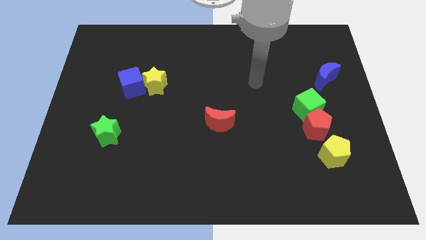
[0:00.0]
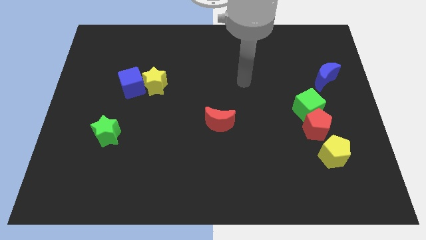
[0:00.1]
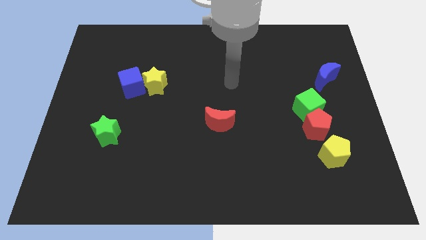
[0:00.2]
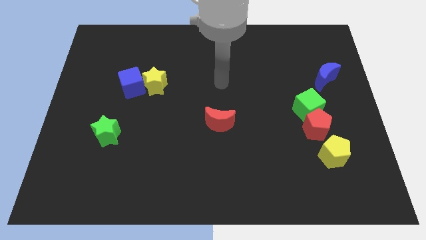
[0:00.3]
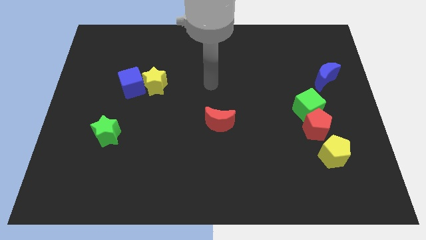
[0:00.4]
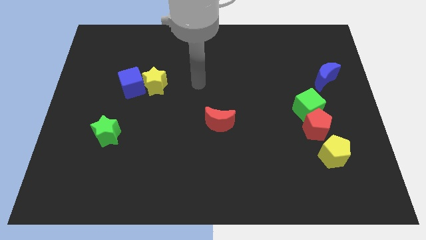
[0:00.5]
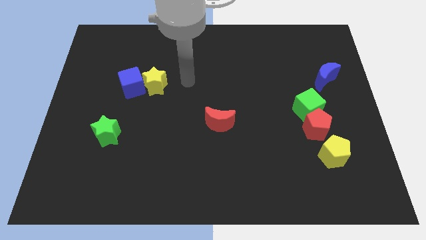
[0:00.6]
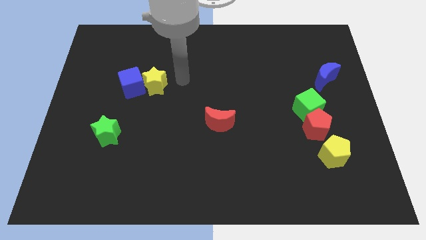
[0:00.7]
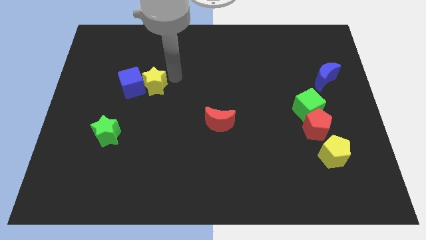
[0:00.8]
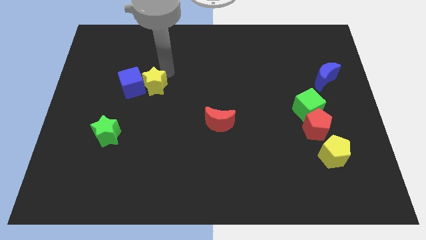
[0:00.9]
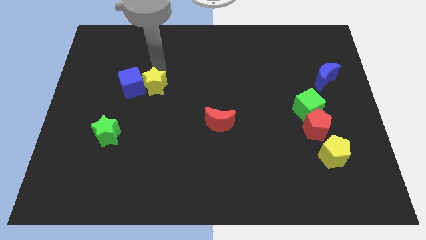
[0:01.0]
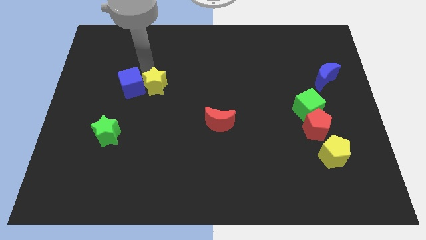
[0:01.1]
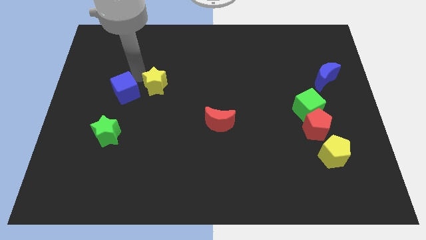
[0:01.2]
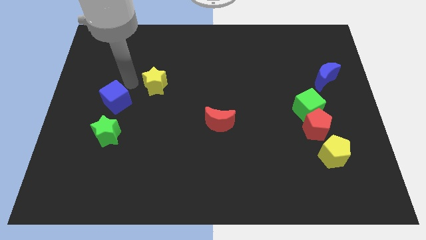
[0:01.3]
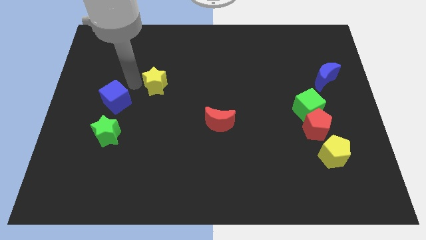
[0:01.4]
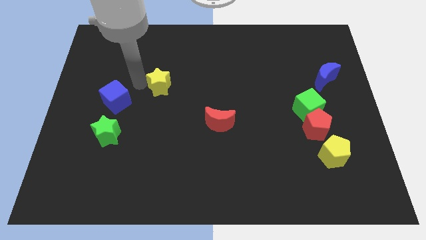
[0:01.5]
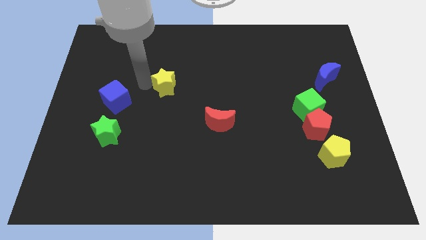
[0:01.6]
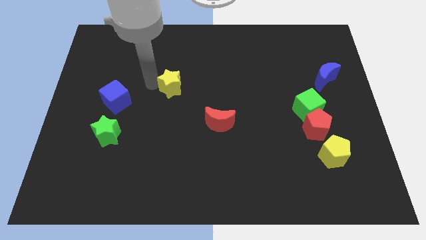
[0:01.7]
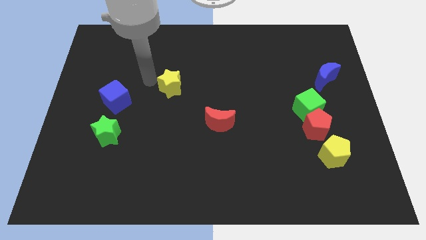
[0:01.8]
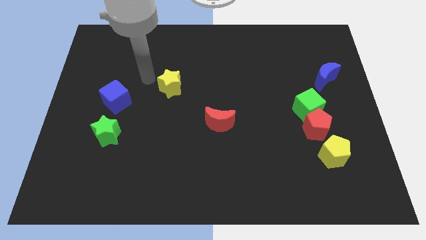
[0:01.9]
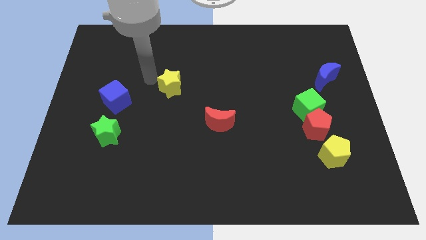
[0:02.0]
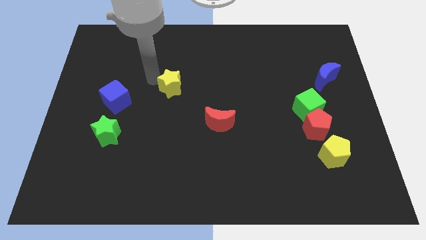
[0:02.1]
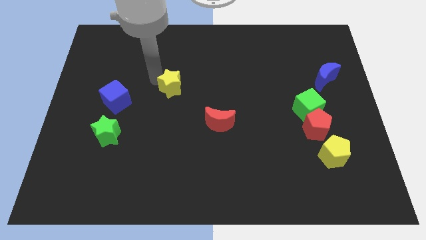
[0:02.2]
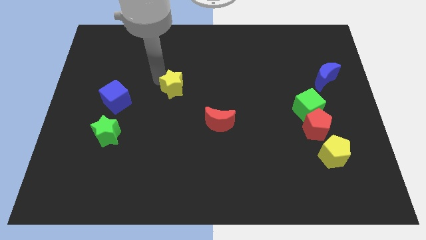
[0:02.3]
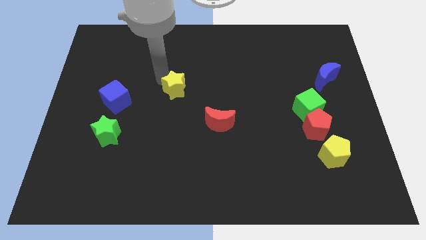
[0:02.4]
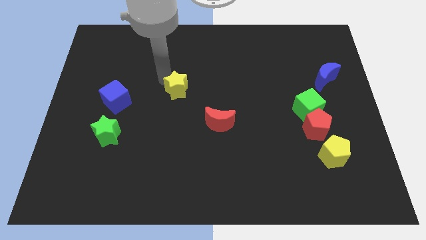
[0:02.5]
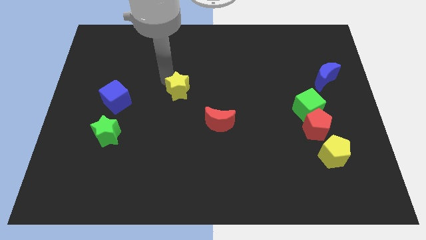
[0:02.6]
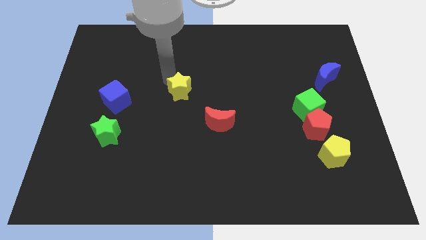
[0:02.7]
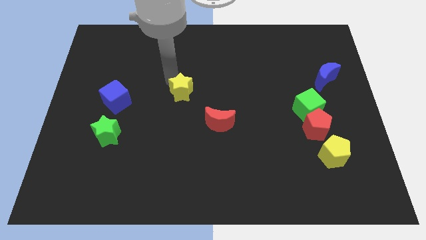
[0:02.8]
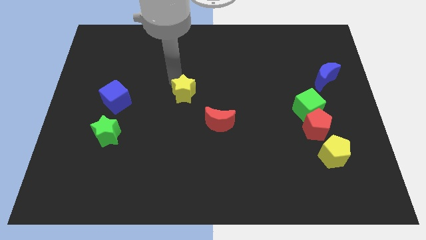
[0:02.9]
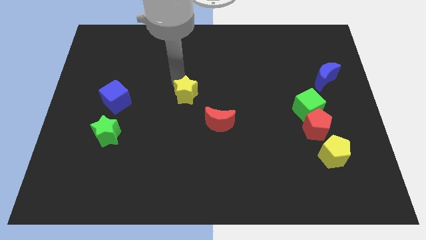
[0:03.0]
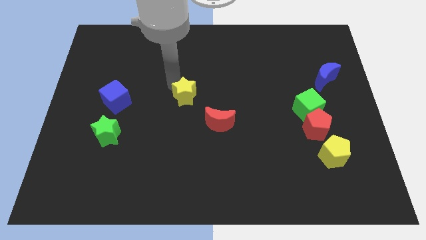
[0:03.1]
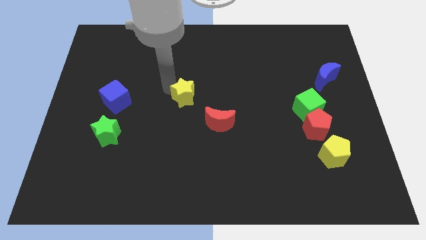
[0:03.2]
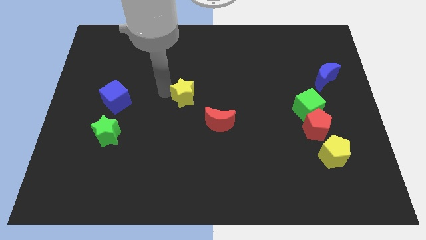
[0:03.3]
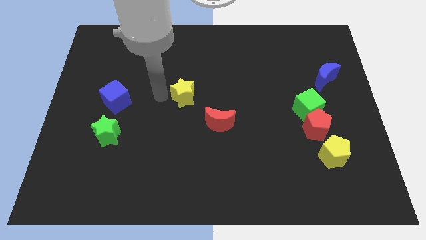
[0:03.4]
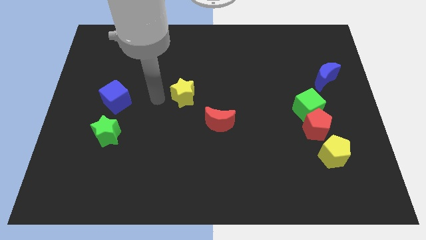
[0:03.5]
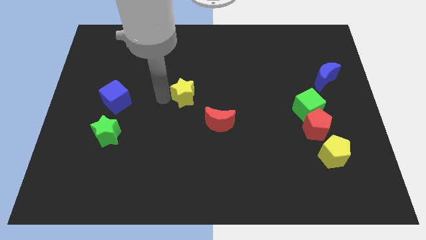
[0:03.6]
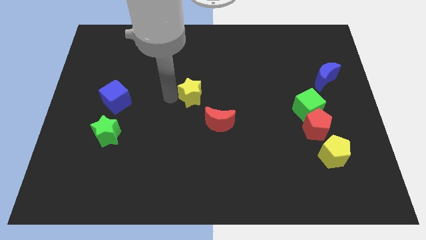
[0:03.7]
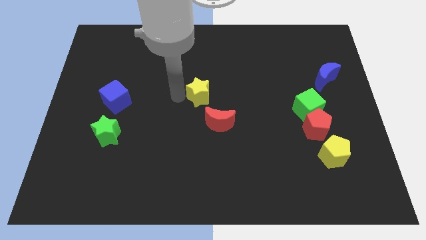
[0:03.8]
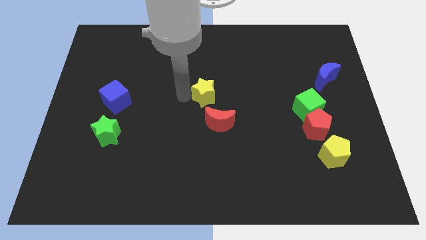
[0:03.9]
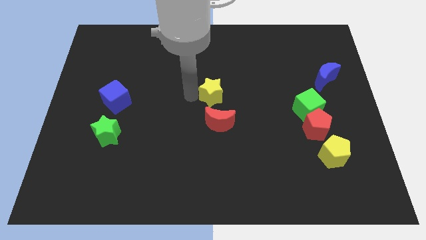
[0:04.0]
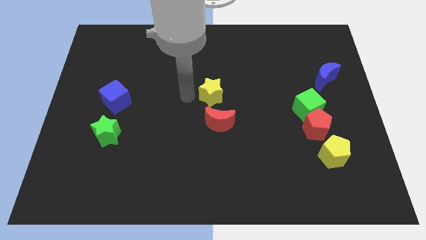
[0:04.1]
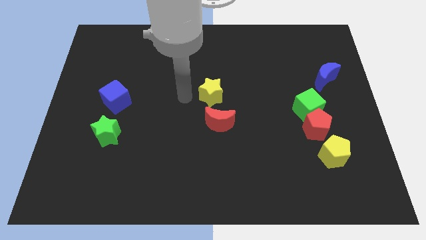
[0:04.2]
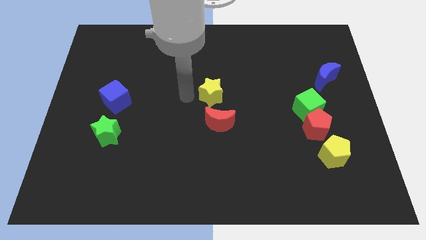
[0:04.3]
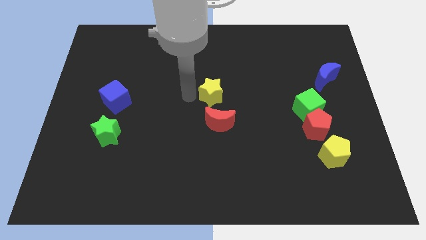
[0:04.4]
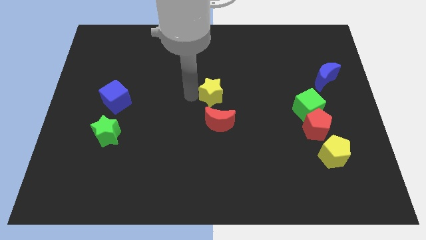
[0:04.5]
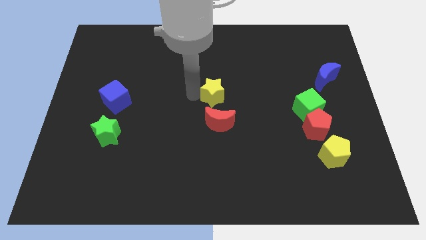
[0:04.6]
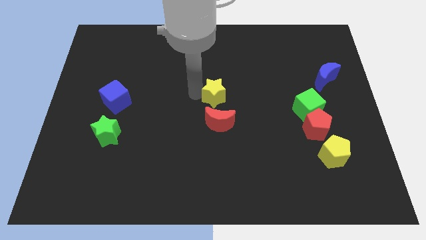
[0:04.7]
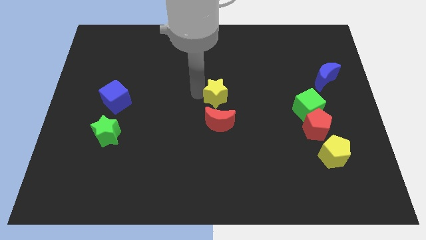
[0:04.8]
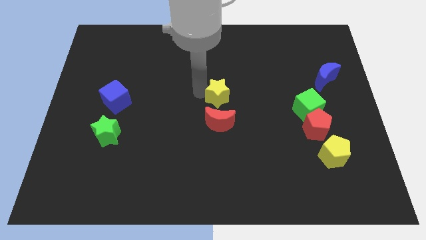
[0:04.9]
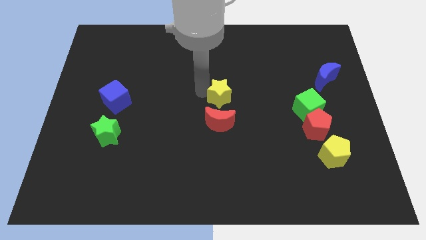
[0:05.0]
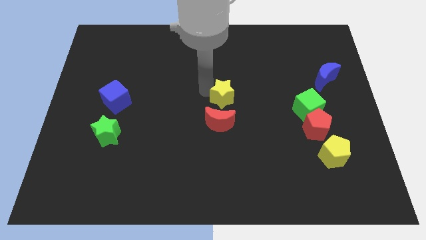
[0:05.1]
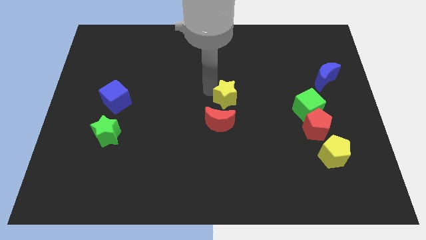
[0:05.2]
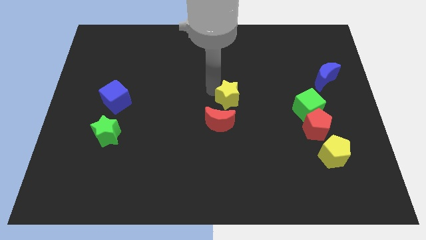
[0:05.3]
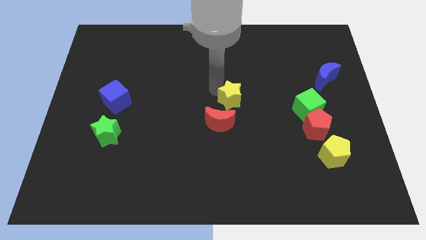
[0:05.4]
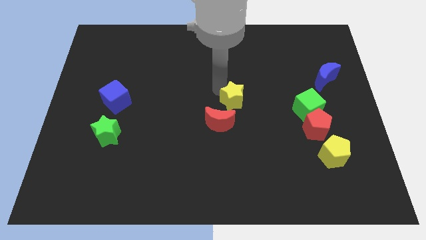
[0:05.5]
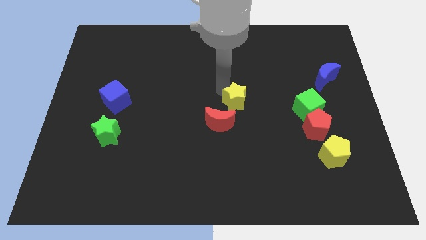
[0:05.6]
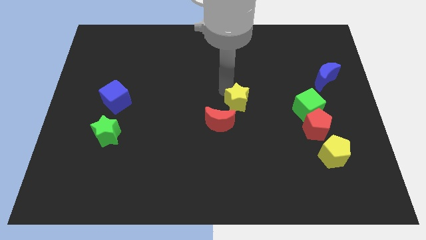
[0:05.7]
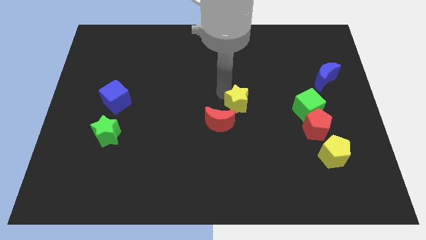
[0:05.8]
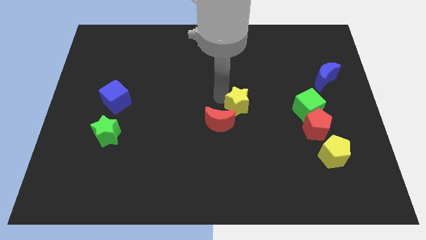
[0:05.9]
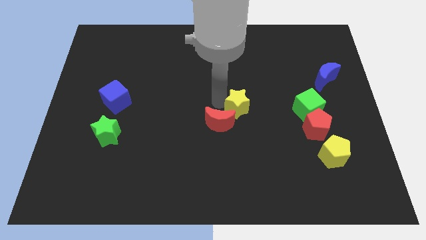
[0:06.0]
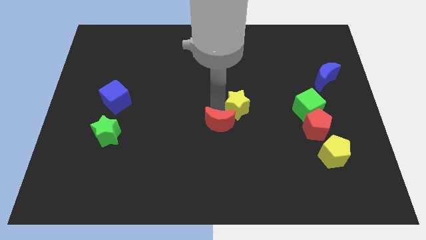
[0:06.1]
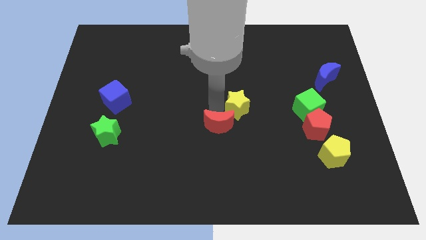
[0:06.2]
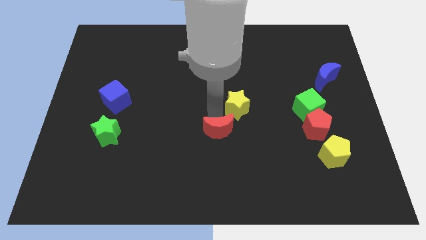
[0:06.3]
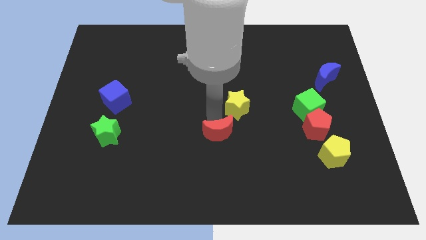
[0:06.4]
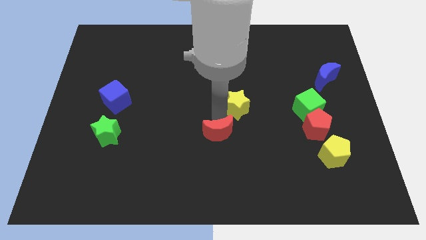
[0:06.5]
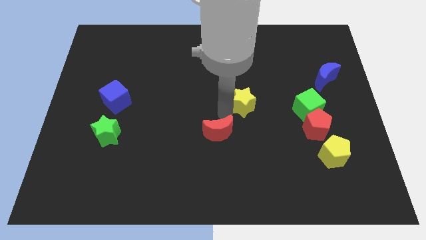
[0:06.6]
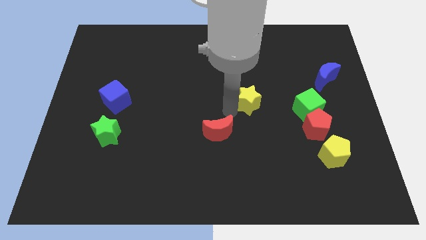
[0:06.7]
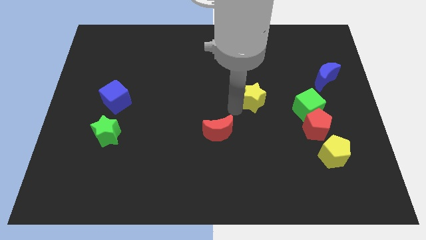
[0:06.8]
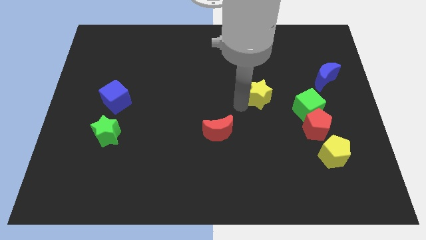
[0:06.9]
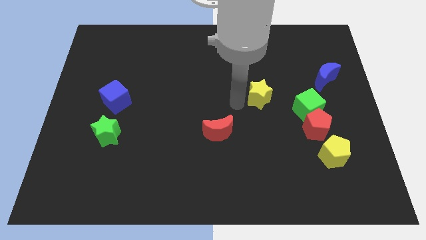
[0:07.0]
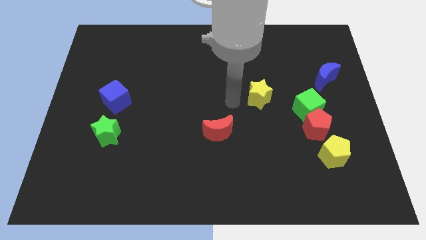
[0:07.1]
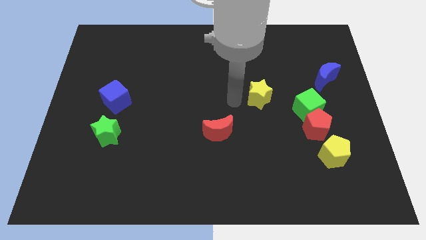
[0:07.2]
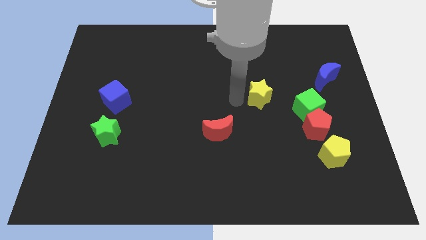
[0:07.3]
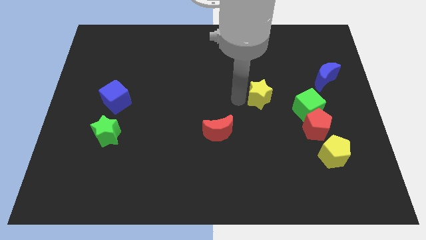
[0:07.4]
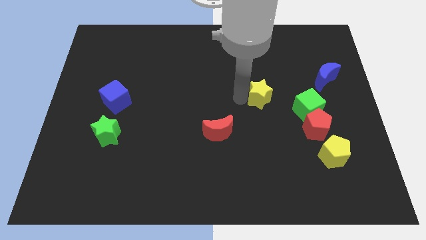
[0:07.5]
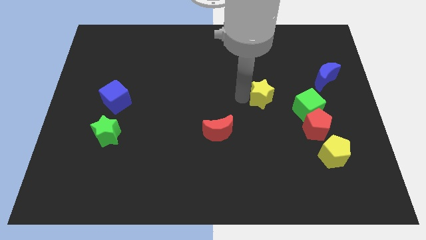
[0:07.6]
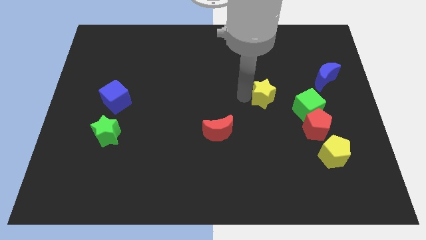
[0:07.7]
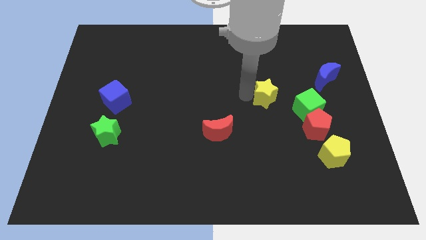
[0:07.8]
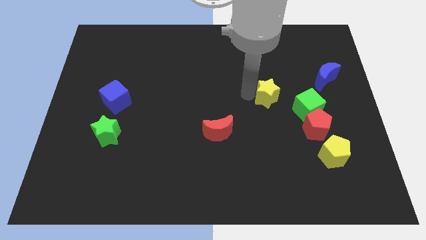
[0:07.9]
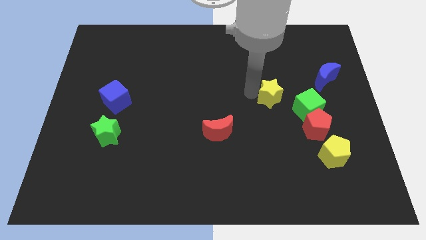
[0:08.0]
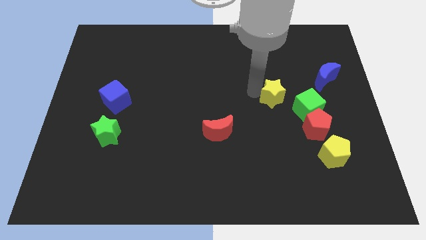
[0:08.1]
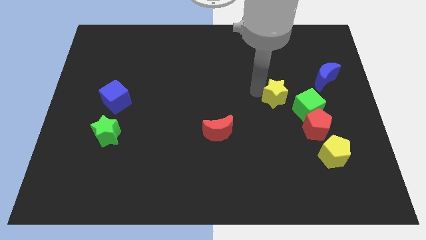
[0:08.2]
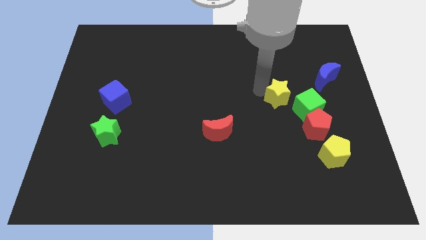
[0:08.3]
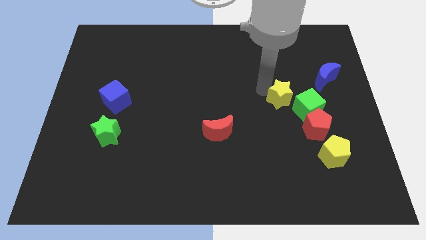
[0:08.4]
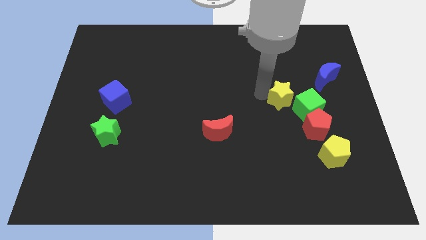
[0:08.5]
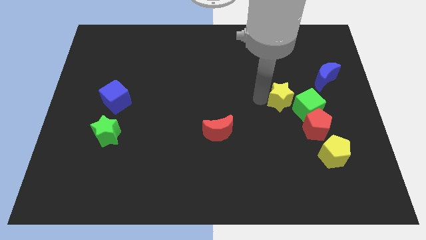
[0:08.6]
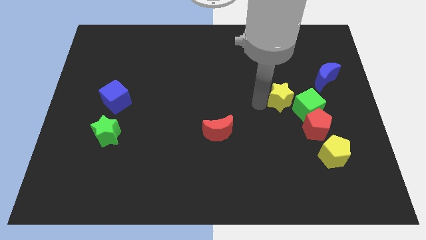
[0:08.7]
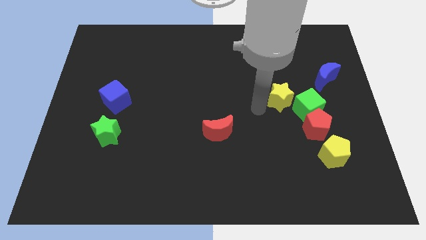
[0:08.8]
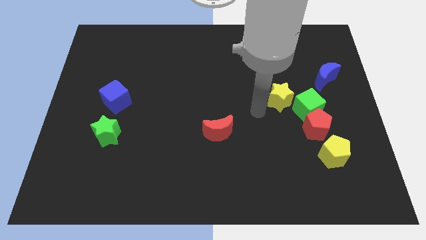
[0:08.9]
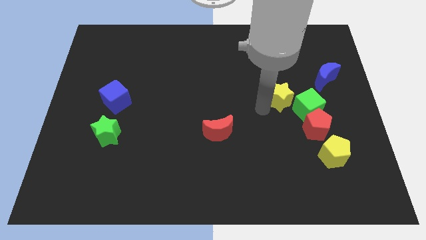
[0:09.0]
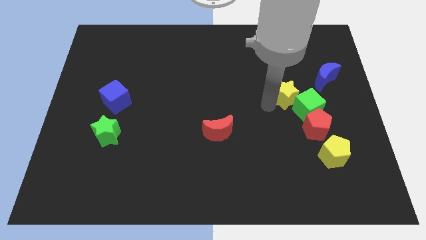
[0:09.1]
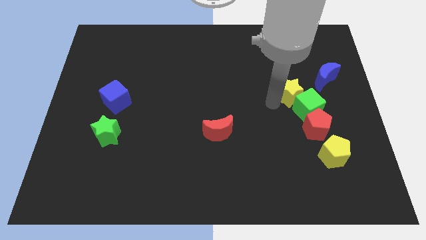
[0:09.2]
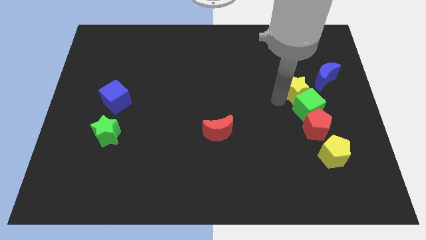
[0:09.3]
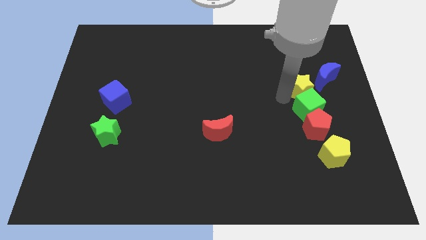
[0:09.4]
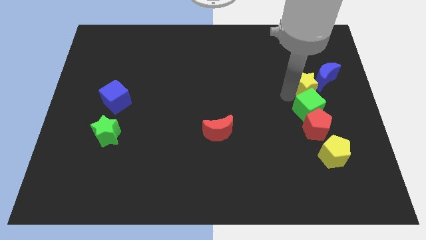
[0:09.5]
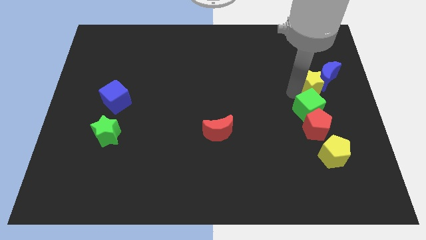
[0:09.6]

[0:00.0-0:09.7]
move the yellow star to the blue moon
